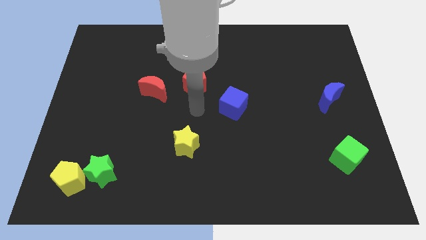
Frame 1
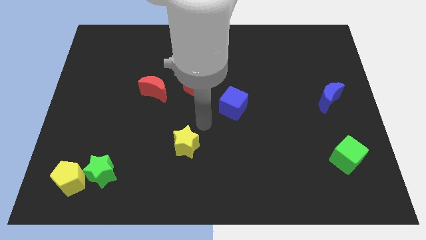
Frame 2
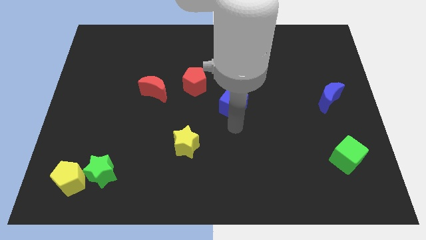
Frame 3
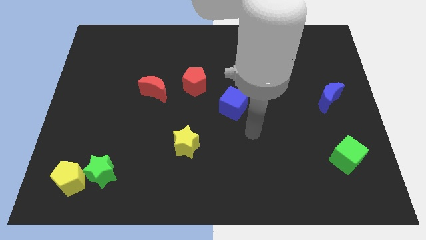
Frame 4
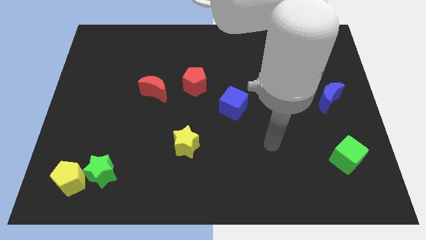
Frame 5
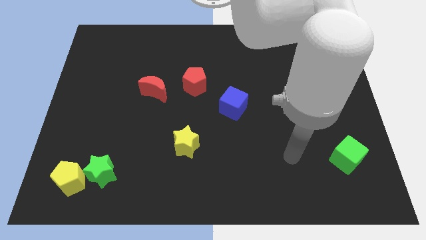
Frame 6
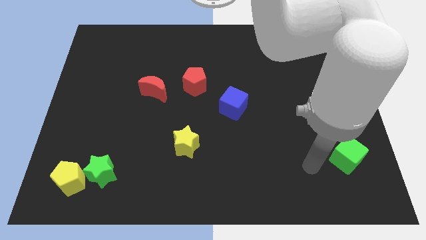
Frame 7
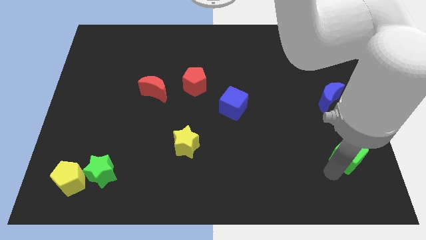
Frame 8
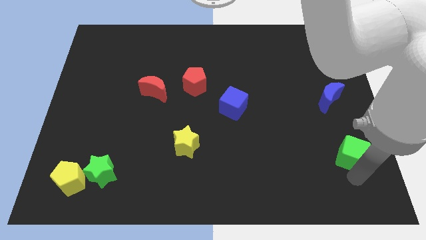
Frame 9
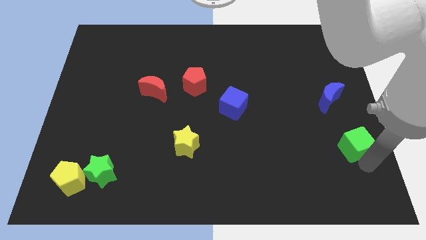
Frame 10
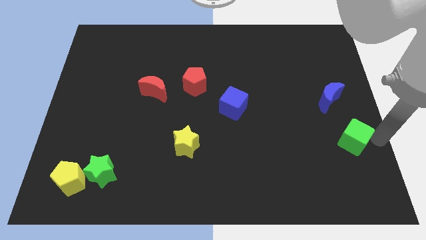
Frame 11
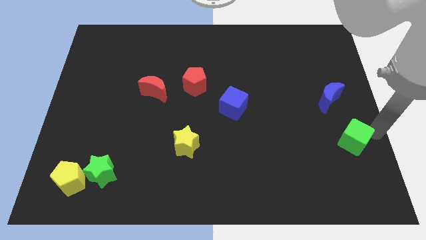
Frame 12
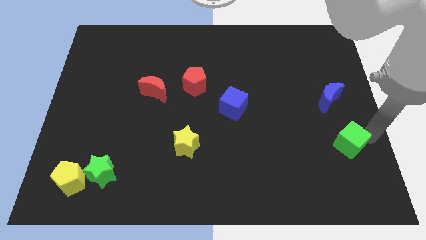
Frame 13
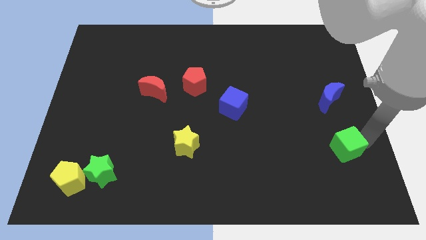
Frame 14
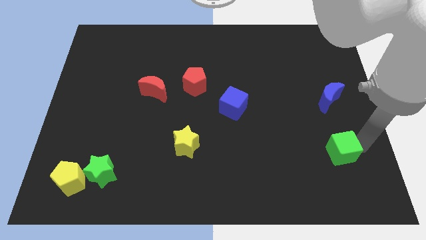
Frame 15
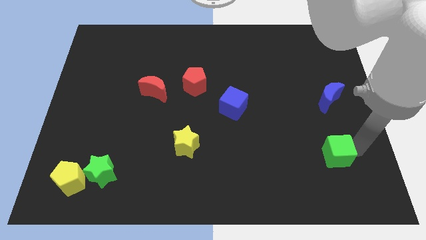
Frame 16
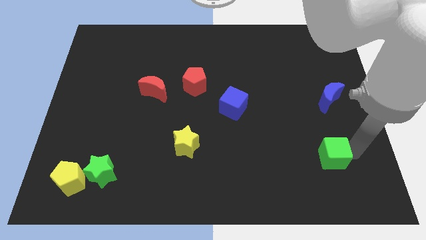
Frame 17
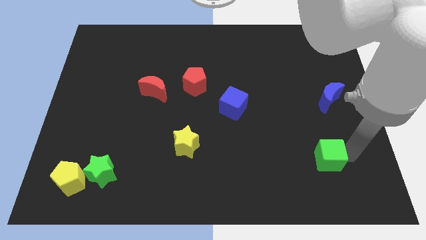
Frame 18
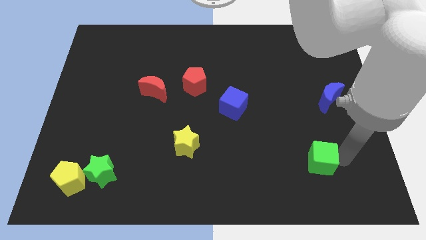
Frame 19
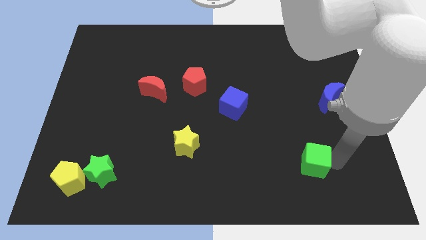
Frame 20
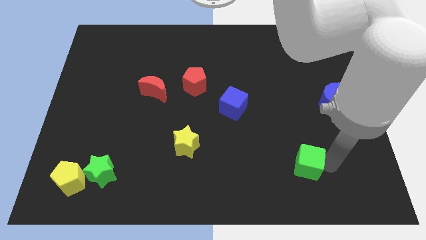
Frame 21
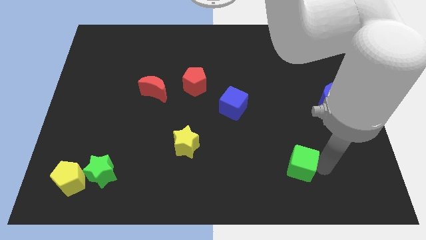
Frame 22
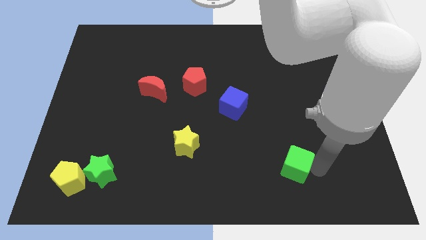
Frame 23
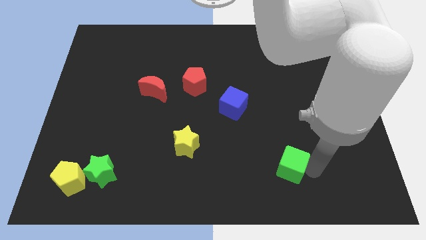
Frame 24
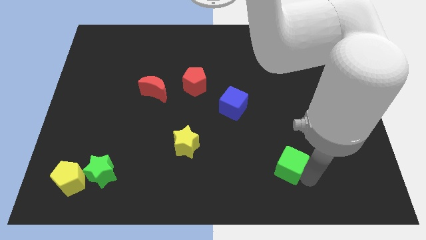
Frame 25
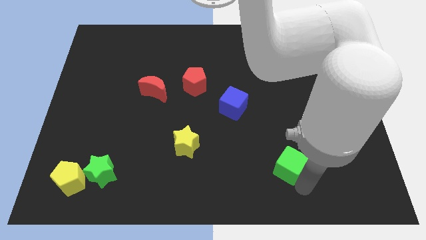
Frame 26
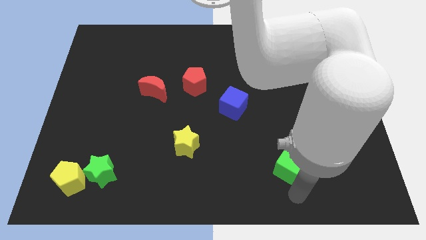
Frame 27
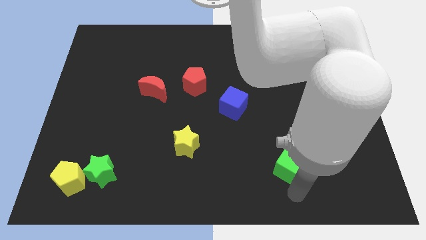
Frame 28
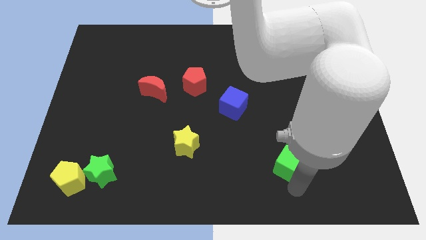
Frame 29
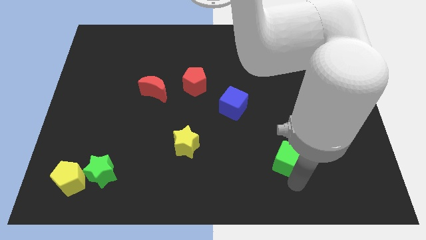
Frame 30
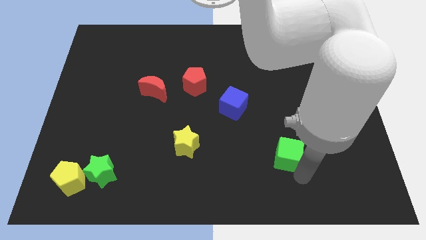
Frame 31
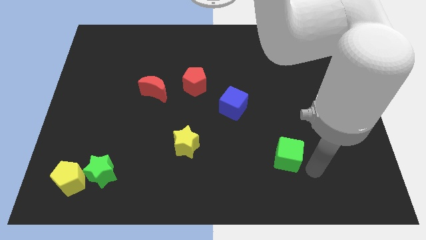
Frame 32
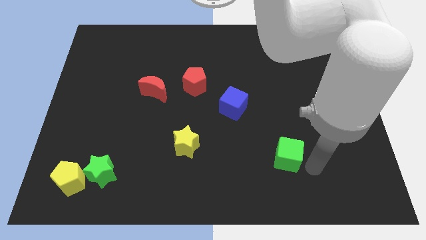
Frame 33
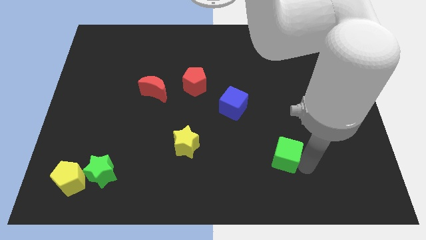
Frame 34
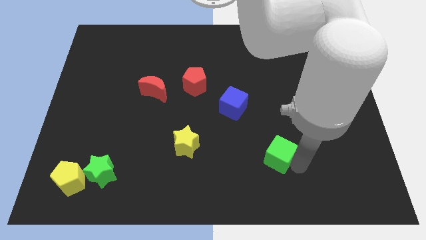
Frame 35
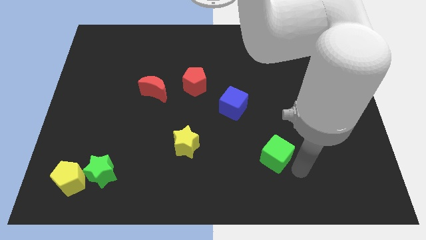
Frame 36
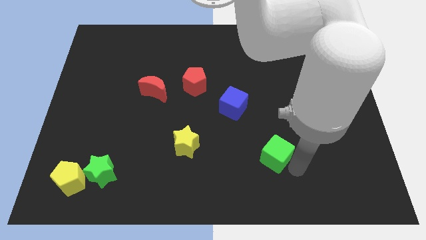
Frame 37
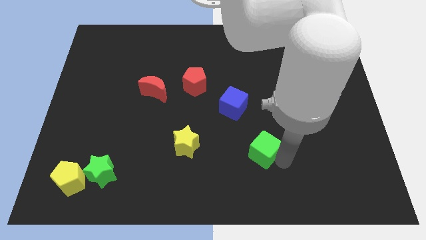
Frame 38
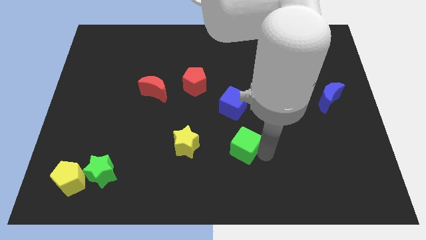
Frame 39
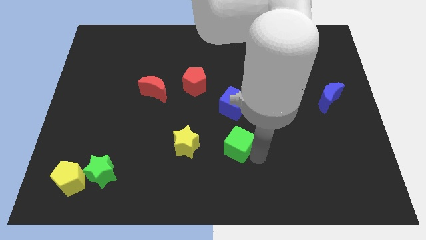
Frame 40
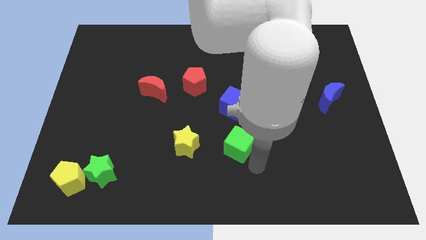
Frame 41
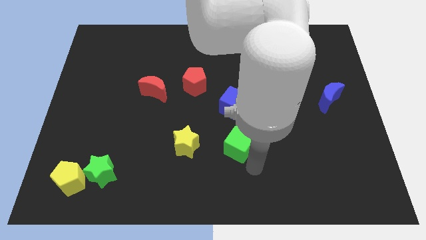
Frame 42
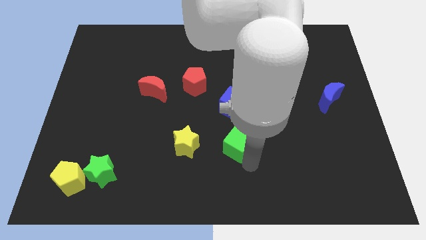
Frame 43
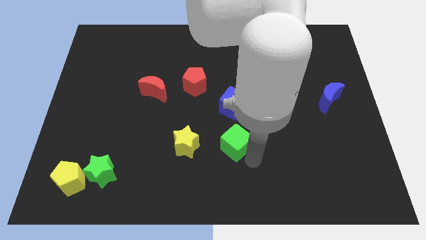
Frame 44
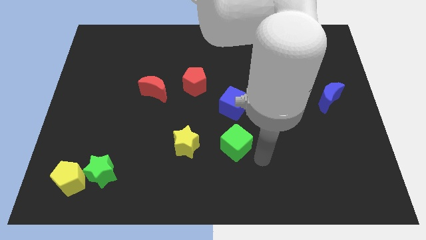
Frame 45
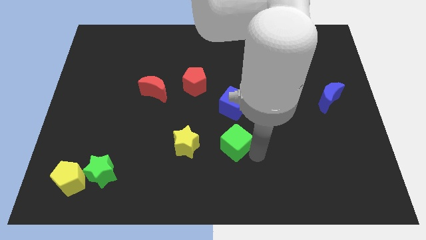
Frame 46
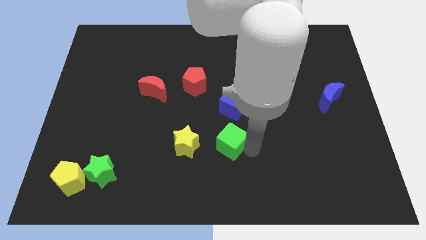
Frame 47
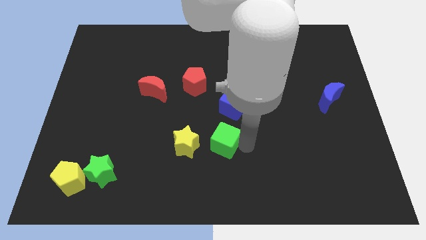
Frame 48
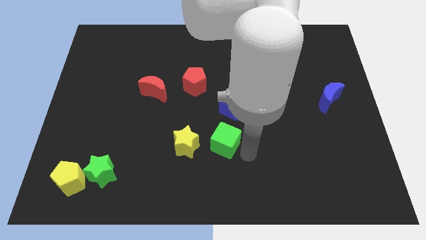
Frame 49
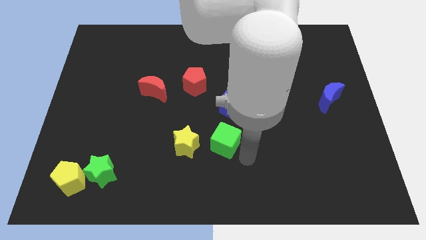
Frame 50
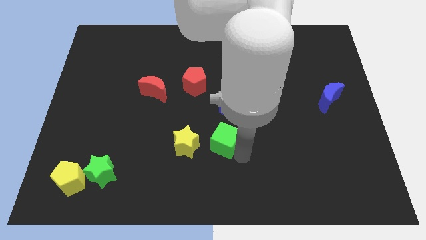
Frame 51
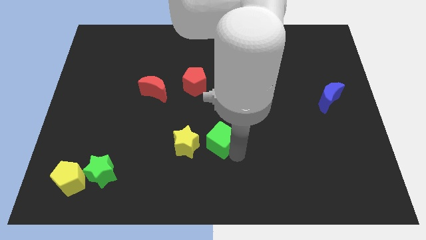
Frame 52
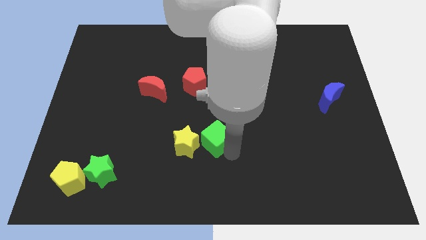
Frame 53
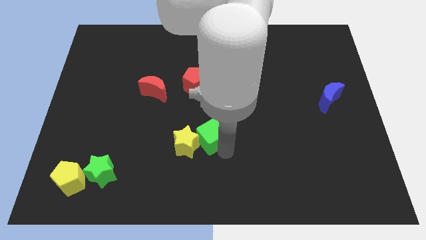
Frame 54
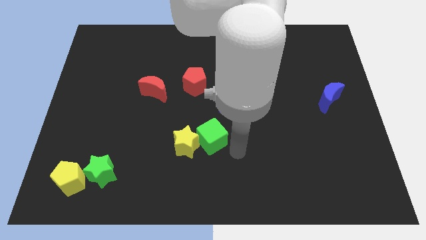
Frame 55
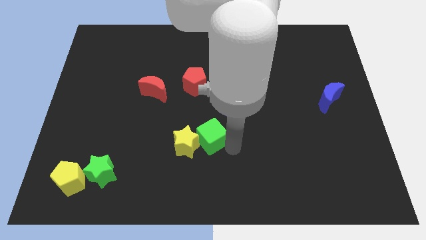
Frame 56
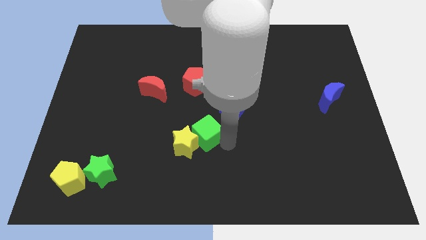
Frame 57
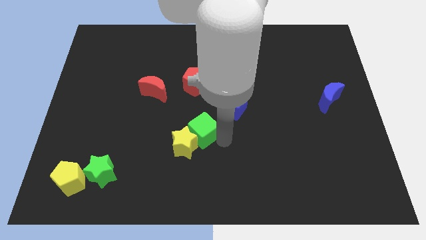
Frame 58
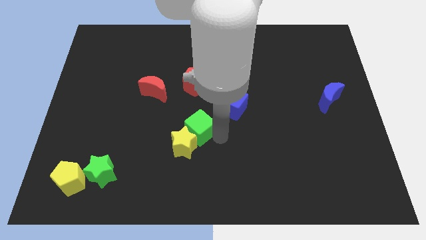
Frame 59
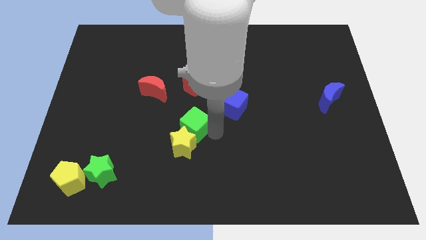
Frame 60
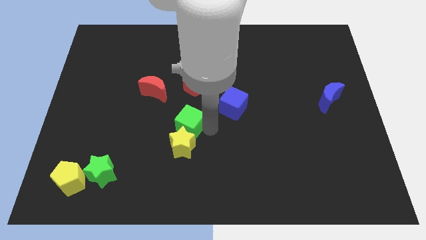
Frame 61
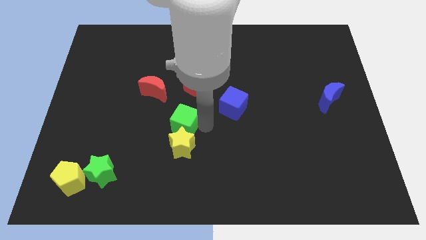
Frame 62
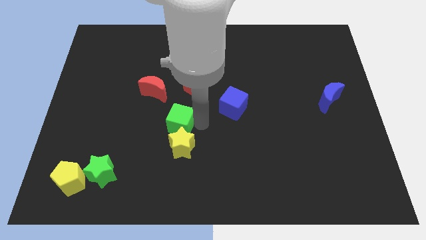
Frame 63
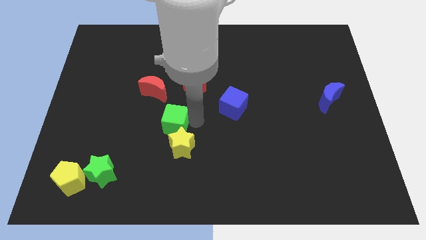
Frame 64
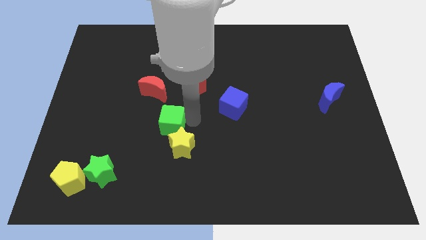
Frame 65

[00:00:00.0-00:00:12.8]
slide the green cube to the bottom side of the red moon

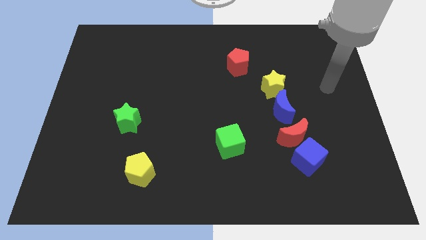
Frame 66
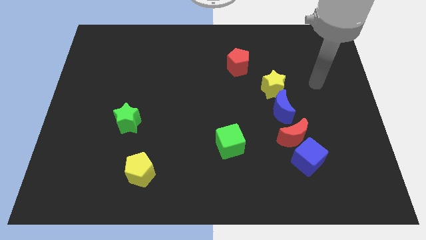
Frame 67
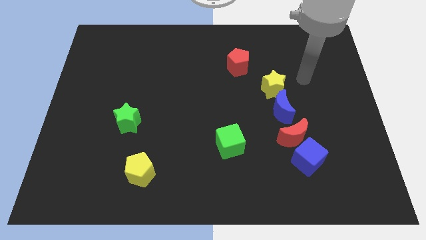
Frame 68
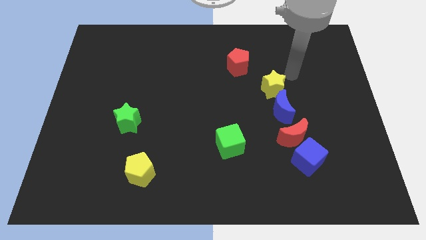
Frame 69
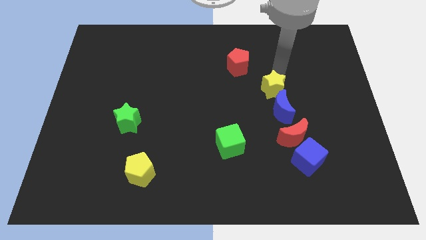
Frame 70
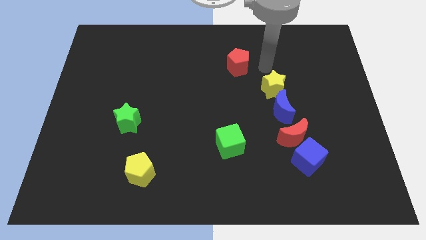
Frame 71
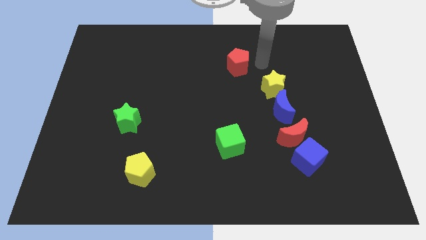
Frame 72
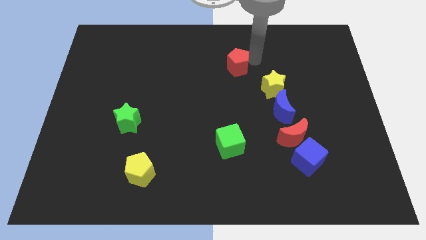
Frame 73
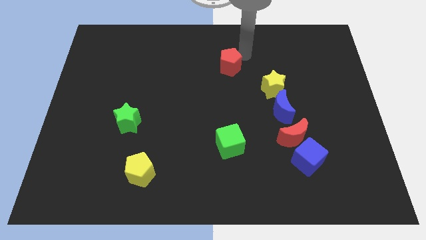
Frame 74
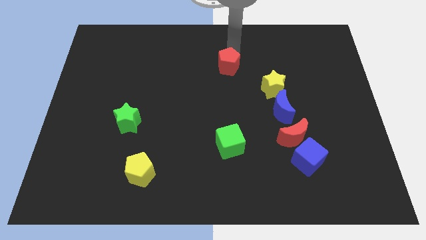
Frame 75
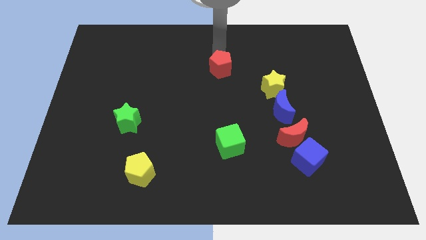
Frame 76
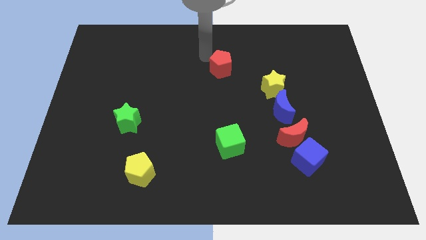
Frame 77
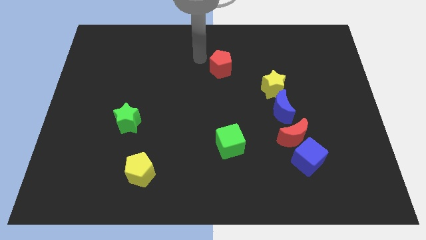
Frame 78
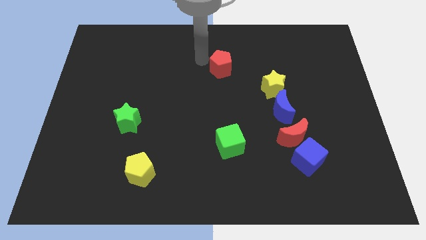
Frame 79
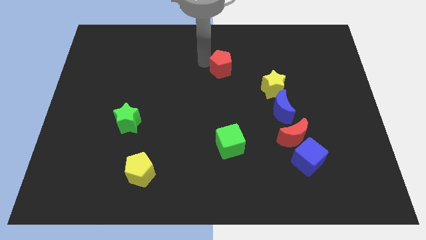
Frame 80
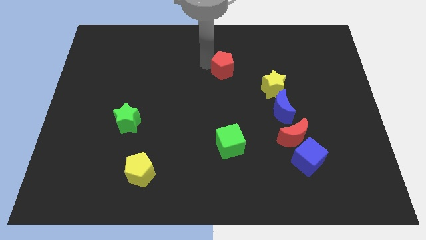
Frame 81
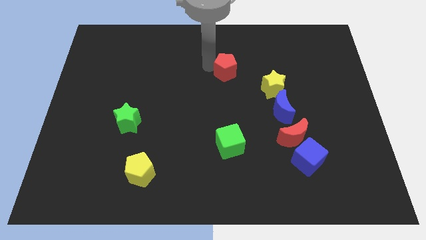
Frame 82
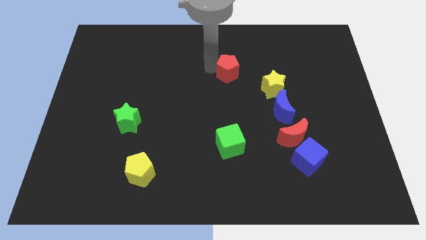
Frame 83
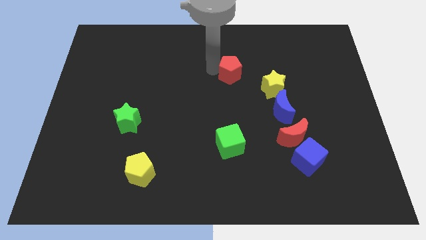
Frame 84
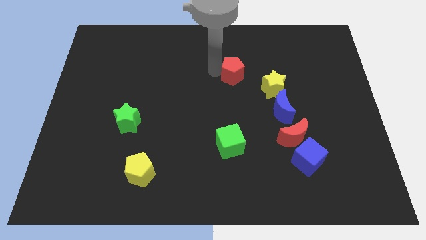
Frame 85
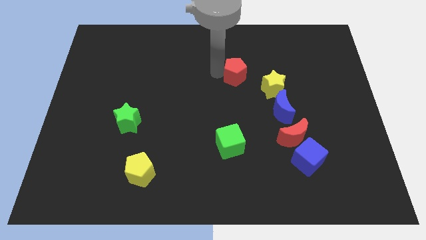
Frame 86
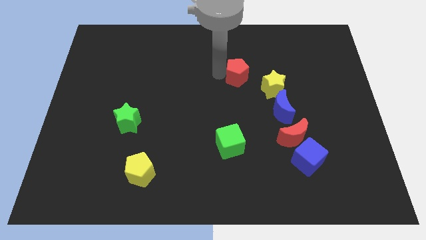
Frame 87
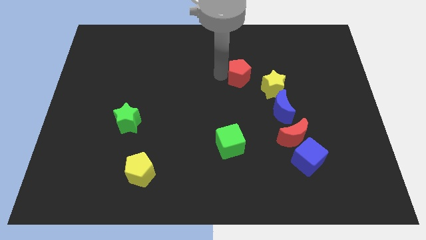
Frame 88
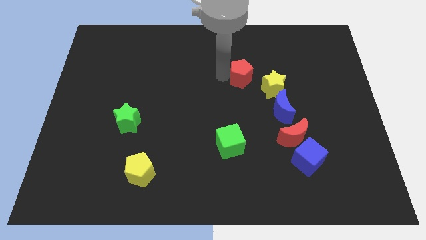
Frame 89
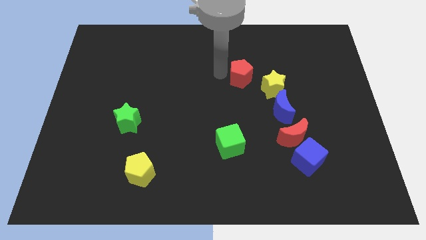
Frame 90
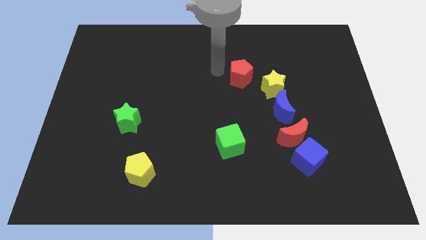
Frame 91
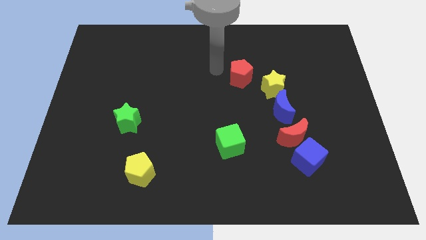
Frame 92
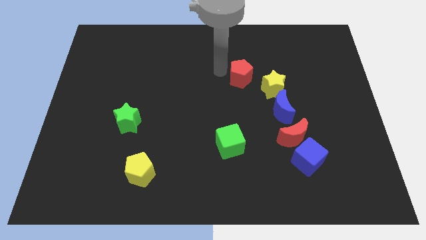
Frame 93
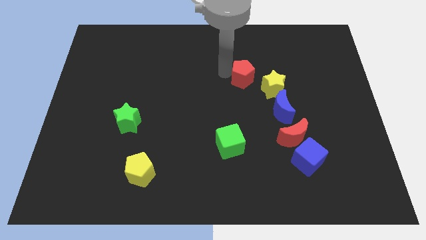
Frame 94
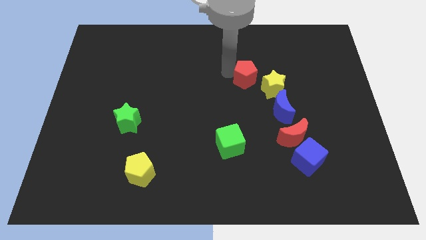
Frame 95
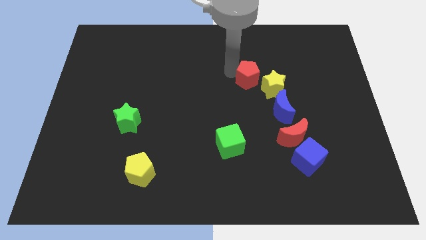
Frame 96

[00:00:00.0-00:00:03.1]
move the red pentagon to the top left of the blue moon
